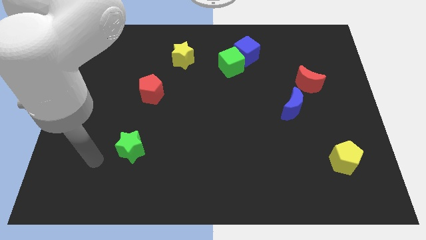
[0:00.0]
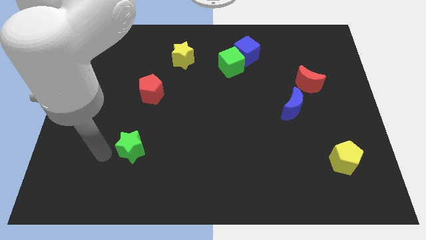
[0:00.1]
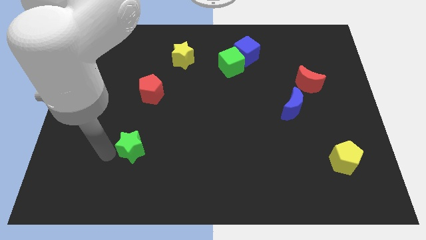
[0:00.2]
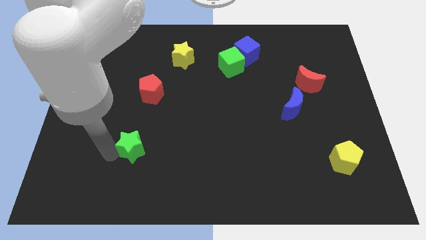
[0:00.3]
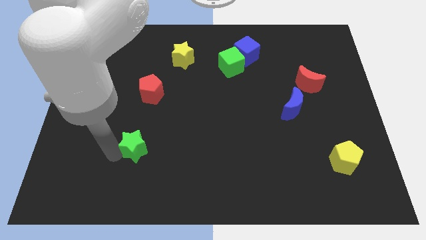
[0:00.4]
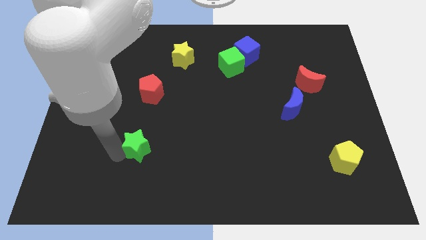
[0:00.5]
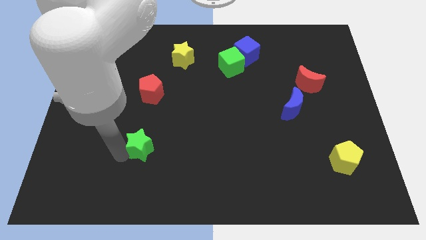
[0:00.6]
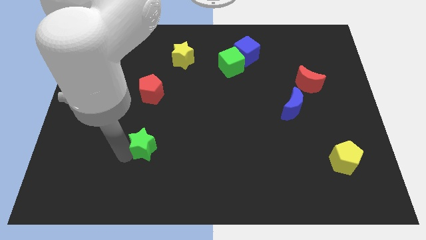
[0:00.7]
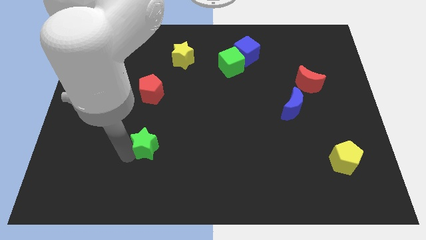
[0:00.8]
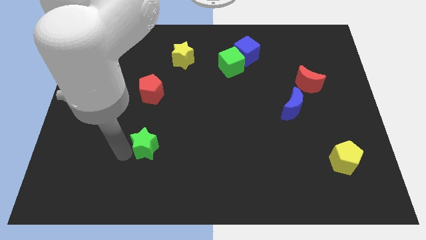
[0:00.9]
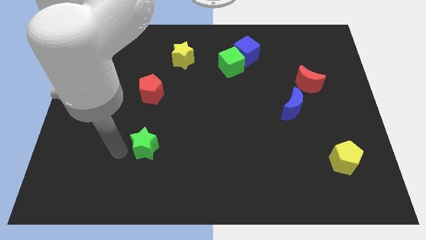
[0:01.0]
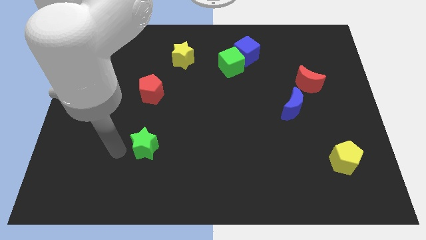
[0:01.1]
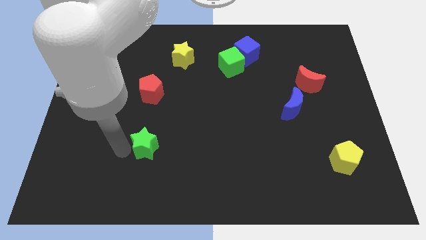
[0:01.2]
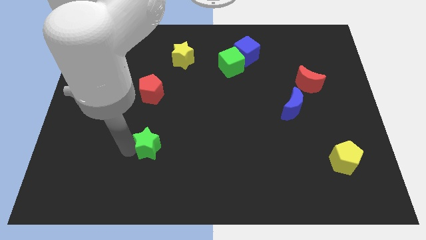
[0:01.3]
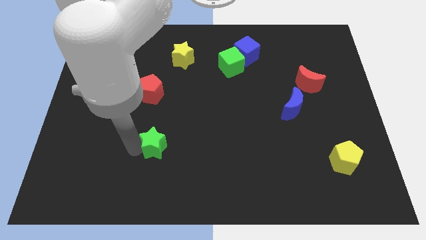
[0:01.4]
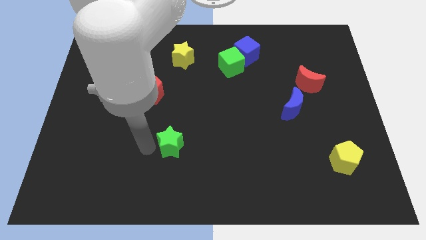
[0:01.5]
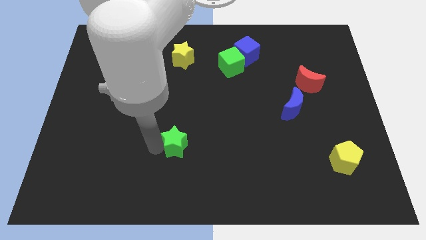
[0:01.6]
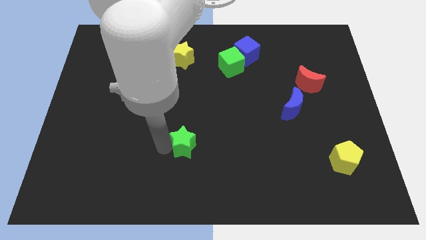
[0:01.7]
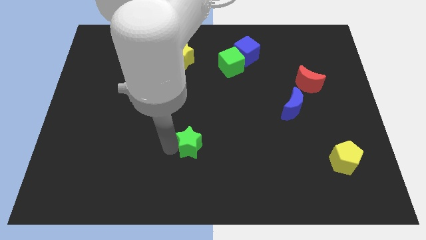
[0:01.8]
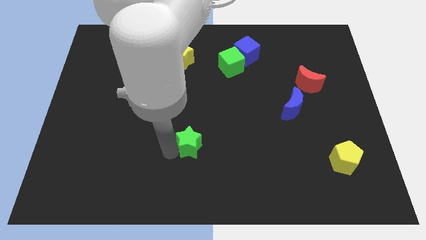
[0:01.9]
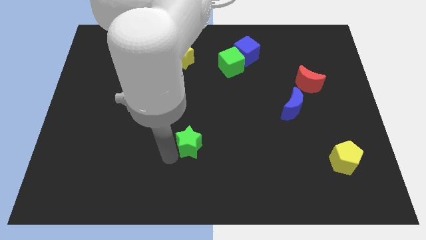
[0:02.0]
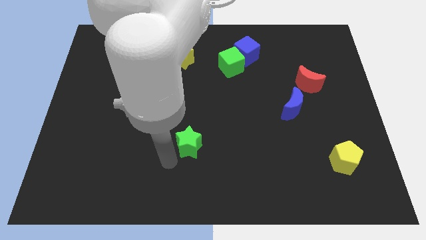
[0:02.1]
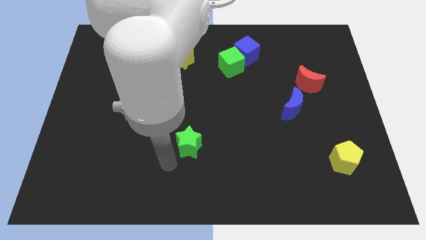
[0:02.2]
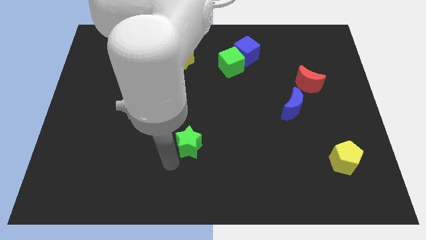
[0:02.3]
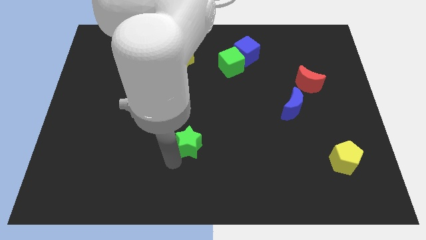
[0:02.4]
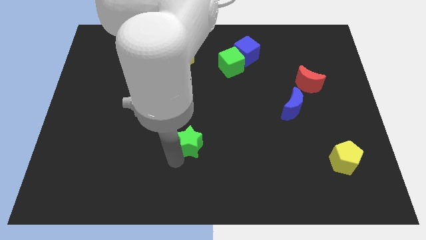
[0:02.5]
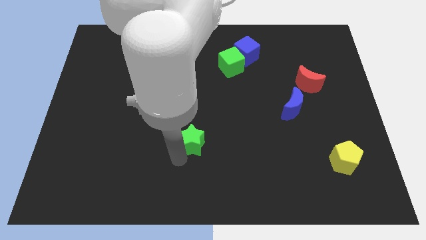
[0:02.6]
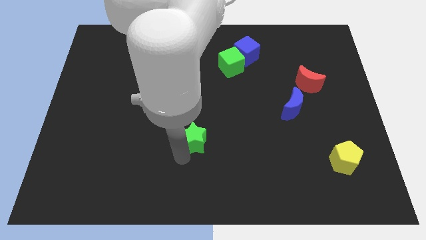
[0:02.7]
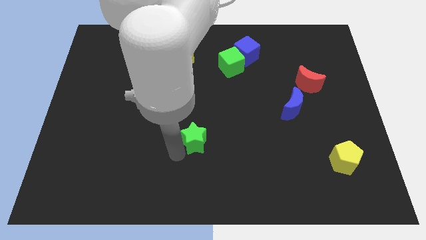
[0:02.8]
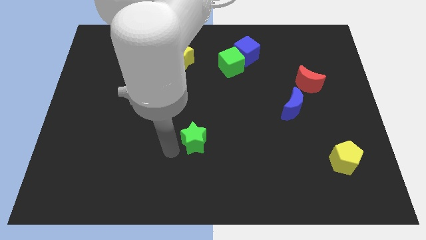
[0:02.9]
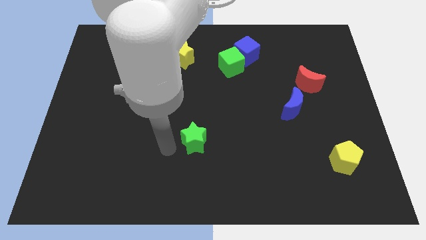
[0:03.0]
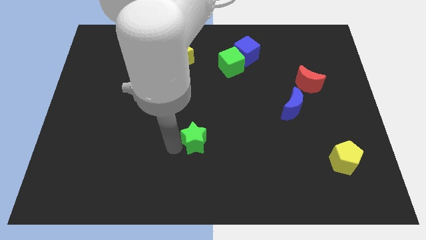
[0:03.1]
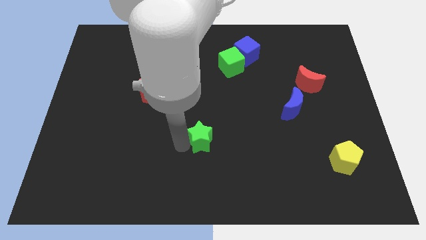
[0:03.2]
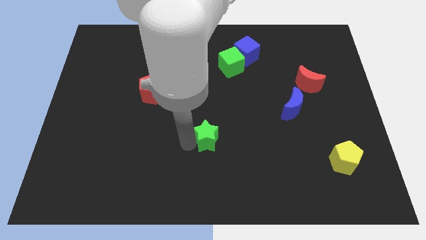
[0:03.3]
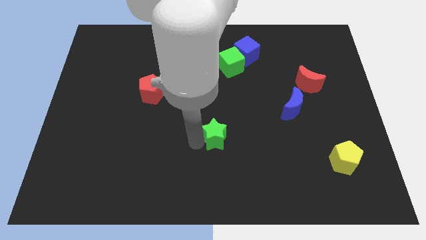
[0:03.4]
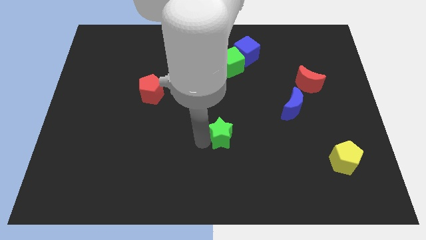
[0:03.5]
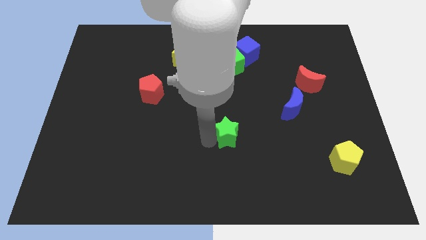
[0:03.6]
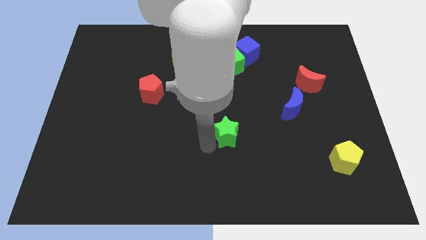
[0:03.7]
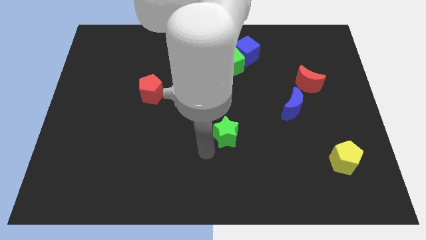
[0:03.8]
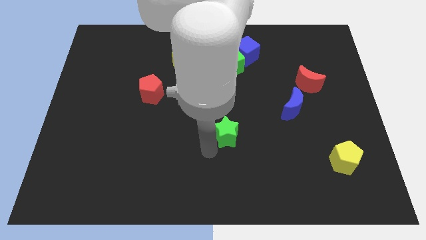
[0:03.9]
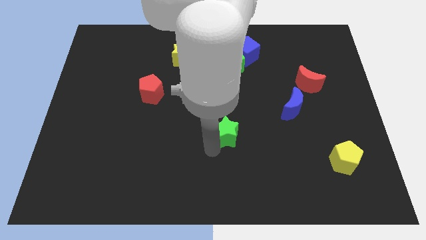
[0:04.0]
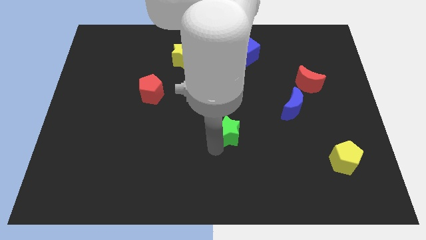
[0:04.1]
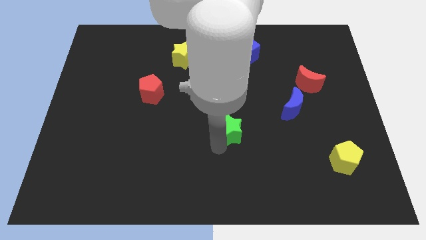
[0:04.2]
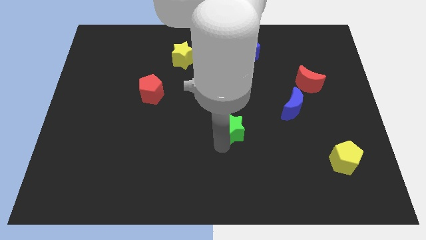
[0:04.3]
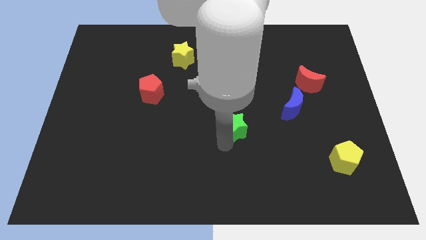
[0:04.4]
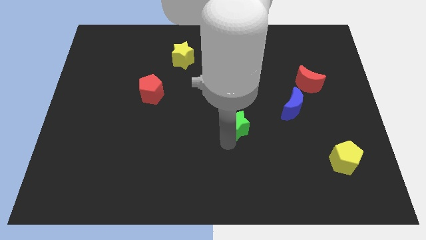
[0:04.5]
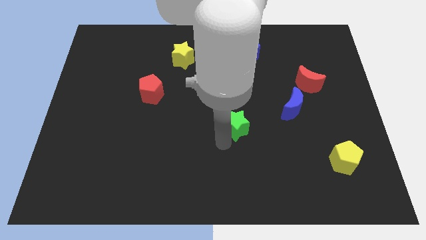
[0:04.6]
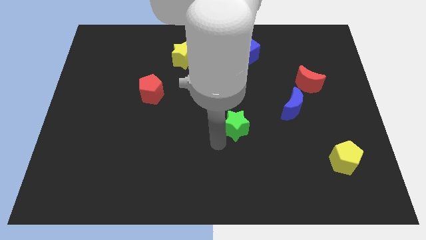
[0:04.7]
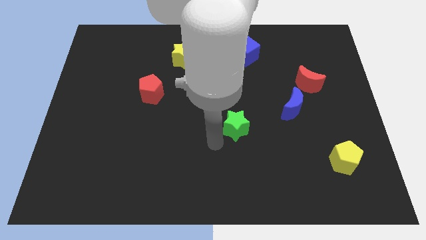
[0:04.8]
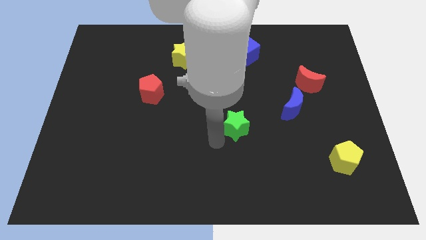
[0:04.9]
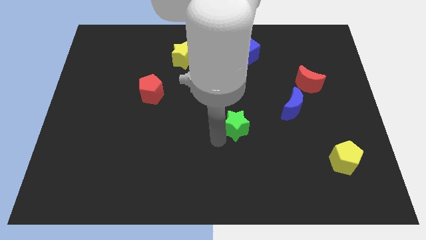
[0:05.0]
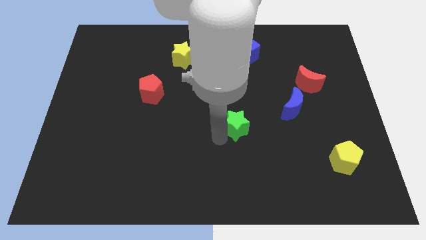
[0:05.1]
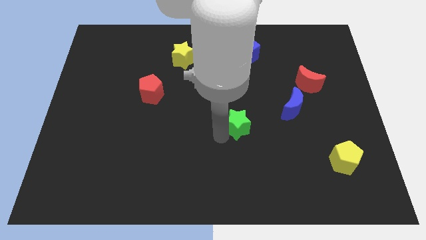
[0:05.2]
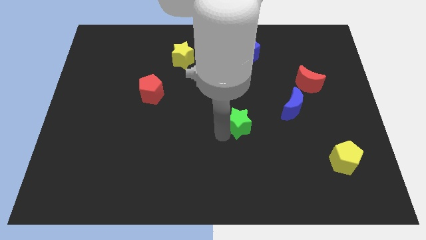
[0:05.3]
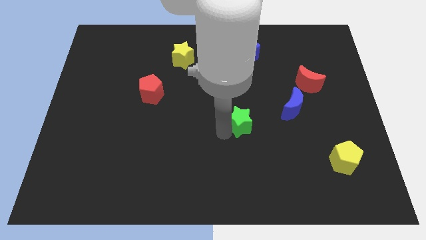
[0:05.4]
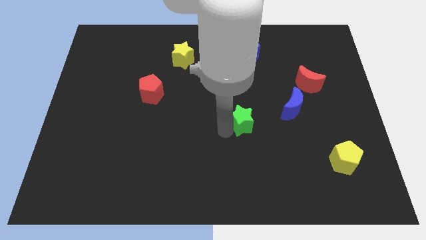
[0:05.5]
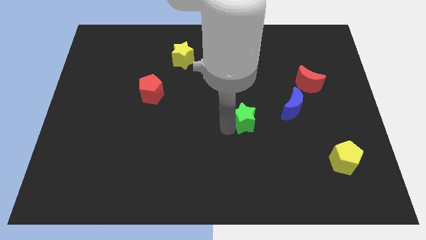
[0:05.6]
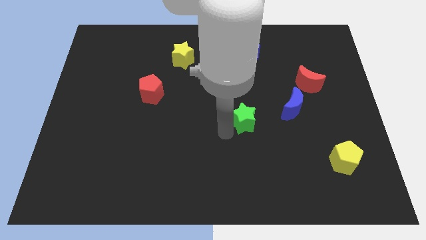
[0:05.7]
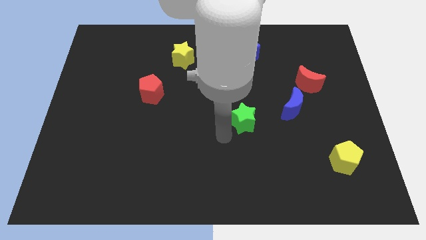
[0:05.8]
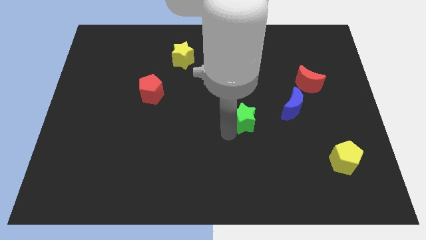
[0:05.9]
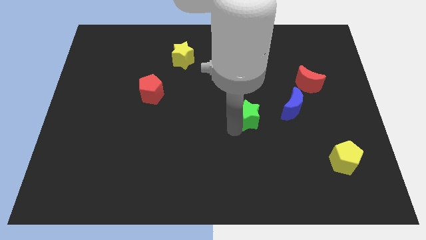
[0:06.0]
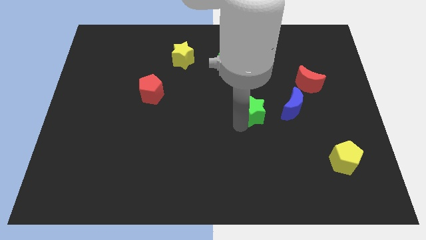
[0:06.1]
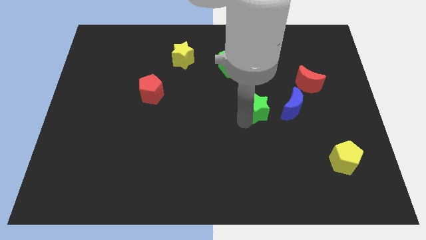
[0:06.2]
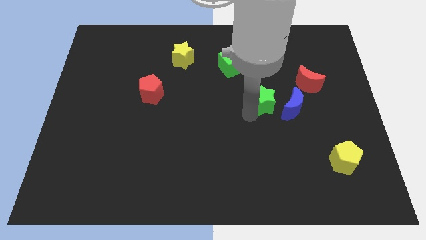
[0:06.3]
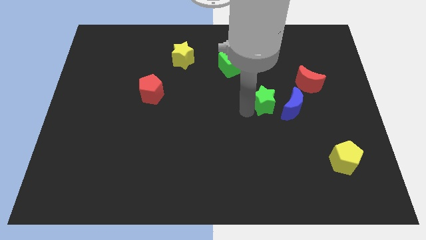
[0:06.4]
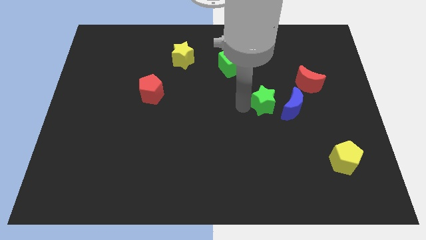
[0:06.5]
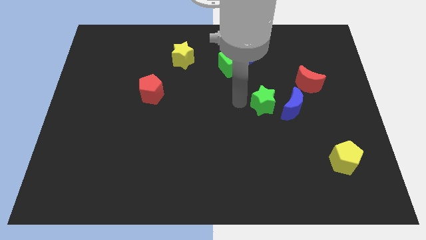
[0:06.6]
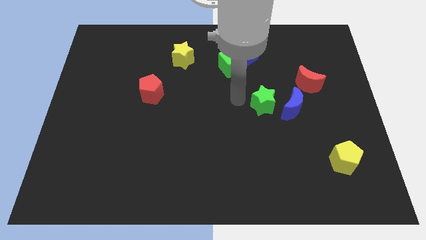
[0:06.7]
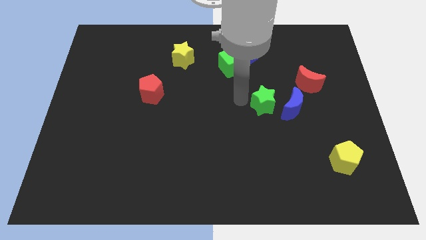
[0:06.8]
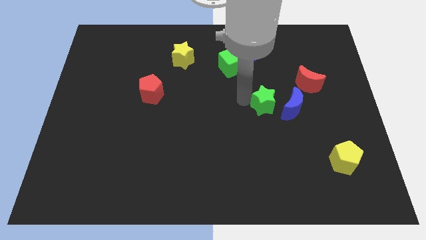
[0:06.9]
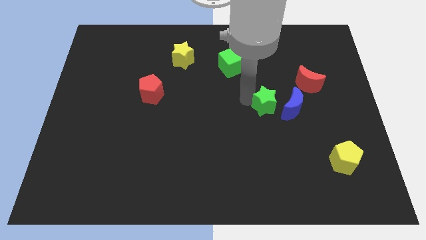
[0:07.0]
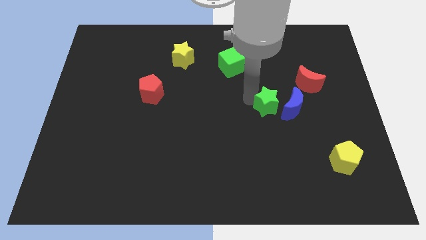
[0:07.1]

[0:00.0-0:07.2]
move the green star next to the blue moon
